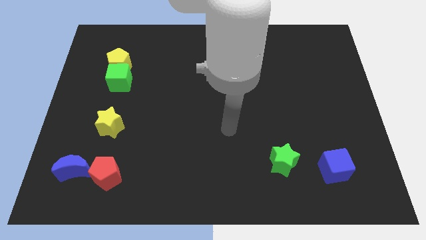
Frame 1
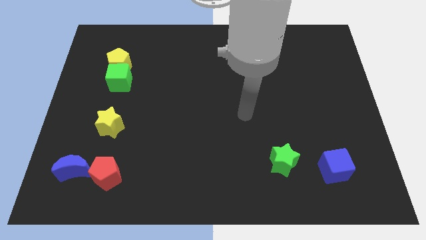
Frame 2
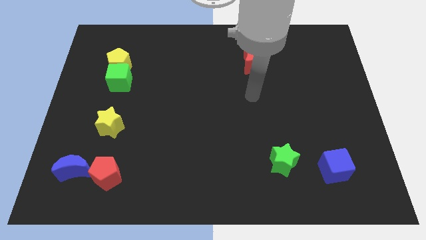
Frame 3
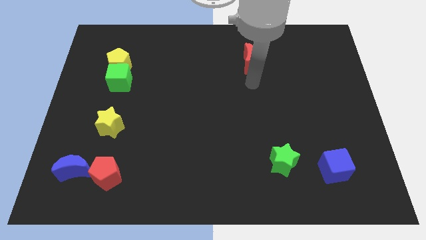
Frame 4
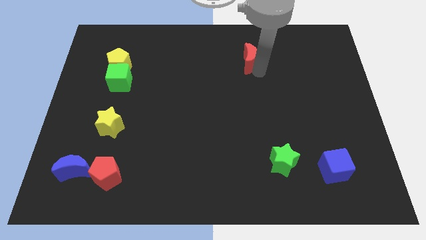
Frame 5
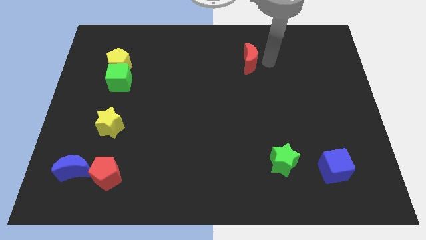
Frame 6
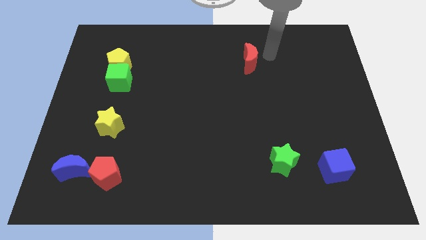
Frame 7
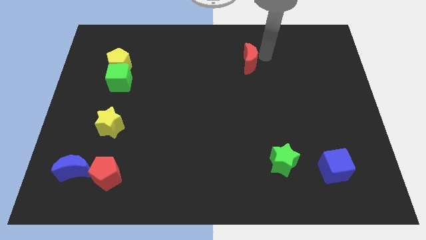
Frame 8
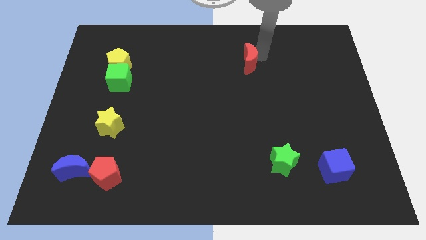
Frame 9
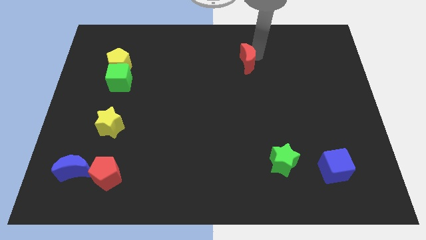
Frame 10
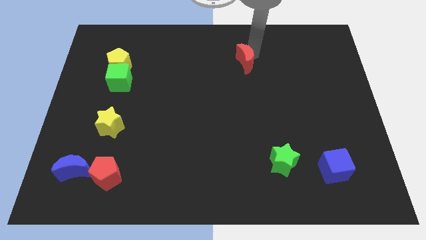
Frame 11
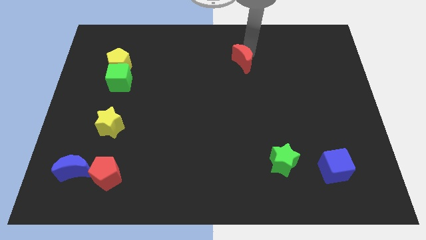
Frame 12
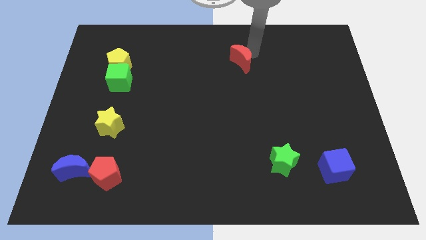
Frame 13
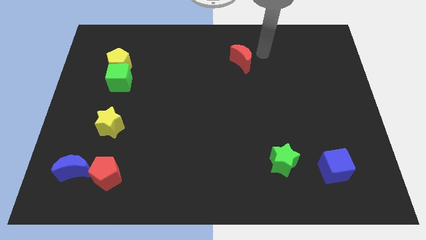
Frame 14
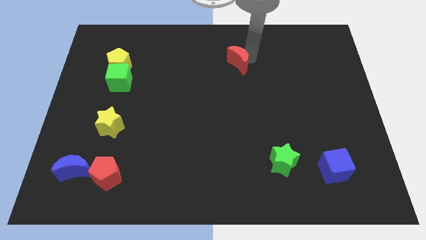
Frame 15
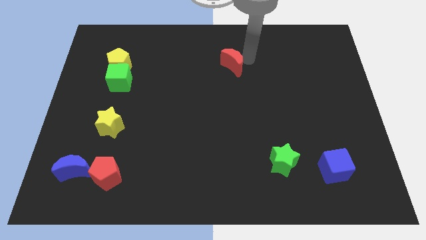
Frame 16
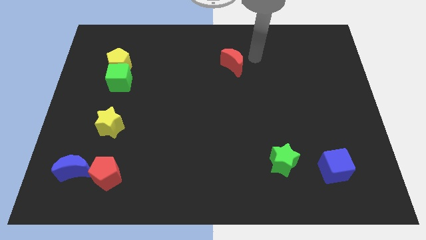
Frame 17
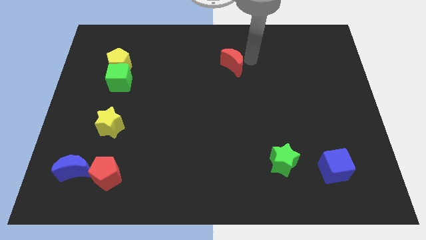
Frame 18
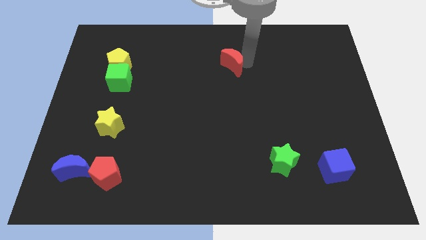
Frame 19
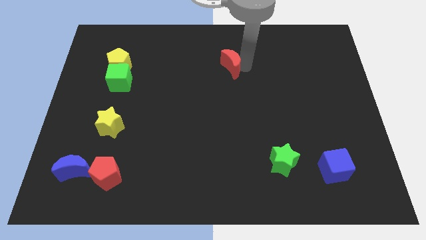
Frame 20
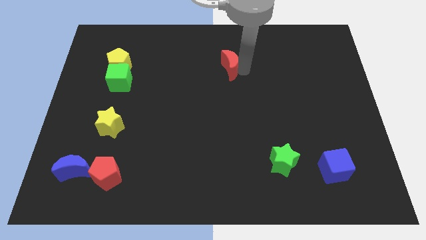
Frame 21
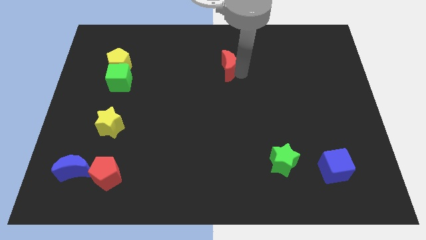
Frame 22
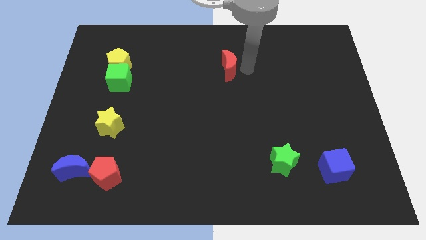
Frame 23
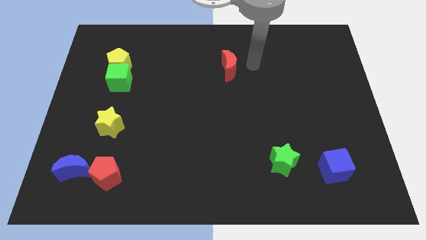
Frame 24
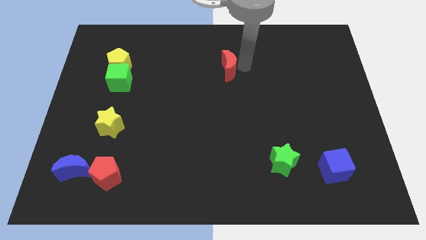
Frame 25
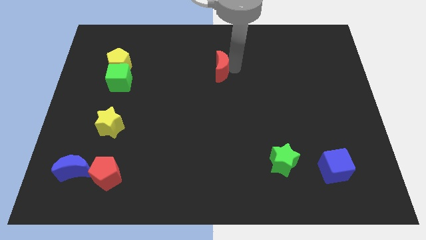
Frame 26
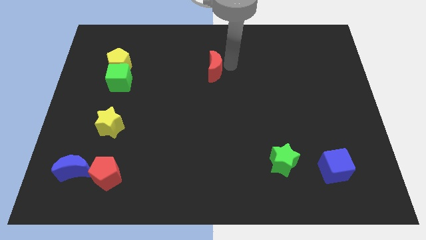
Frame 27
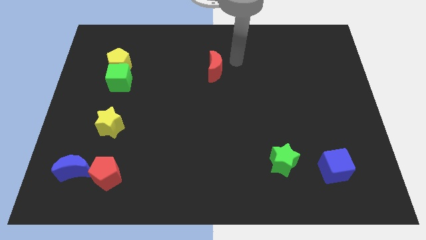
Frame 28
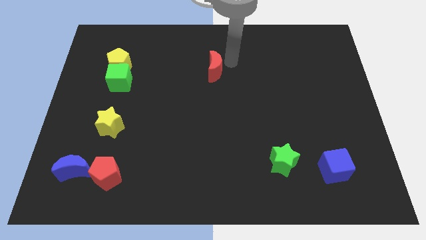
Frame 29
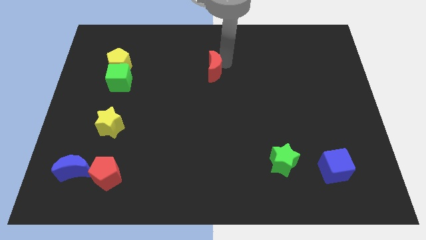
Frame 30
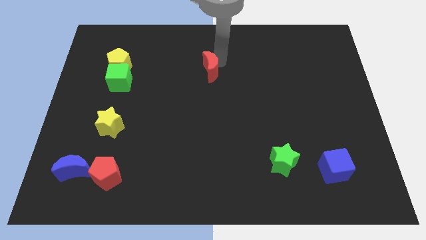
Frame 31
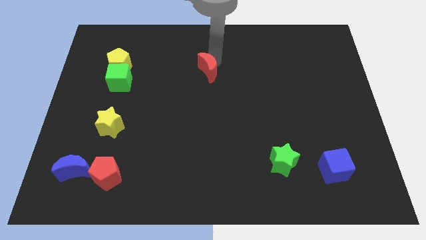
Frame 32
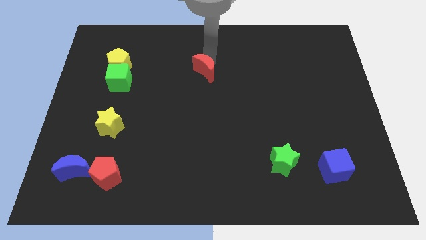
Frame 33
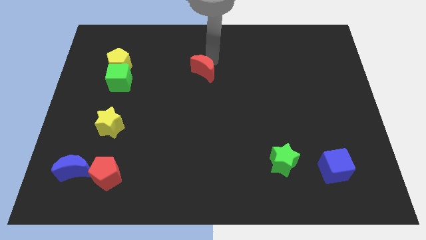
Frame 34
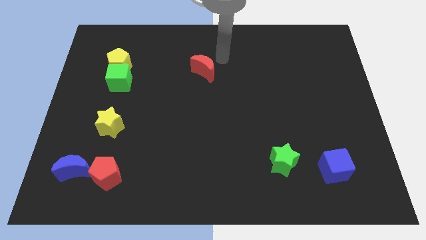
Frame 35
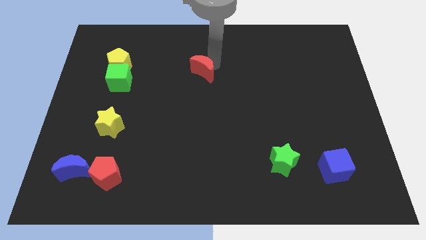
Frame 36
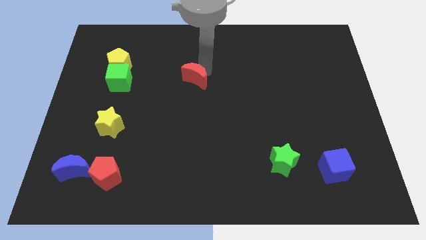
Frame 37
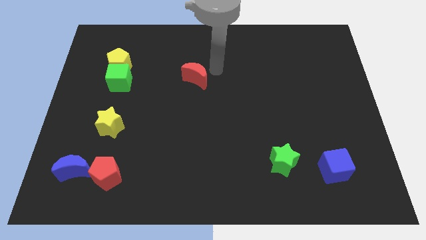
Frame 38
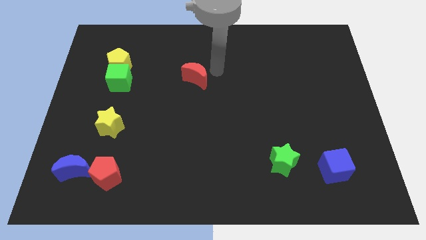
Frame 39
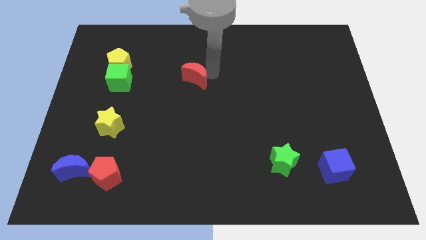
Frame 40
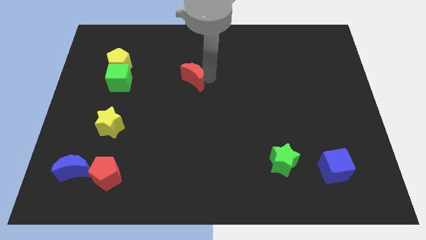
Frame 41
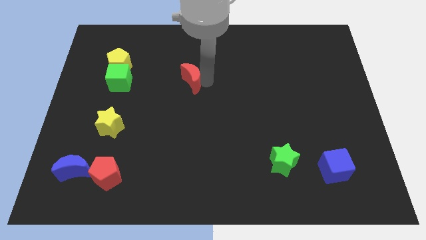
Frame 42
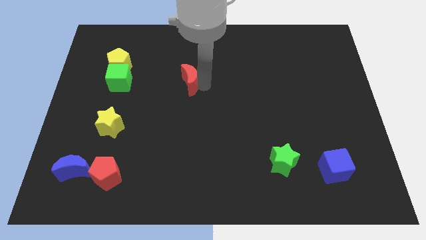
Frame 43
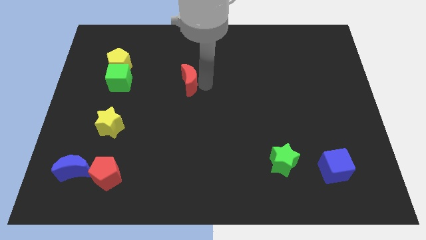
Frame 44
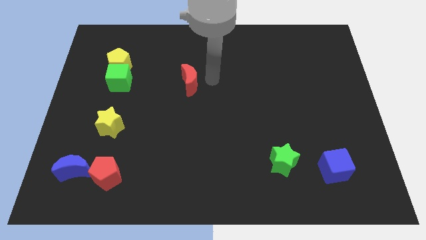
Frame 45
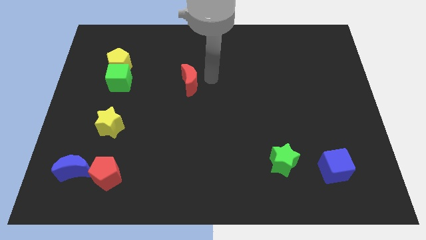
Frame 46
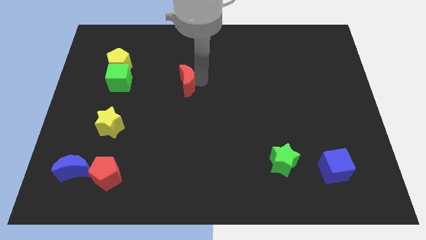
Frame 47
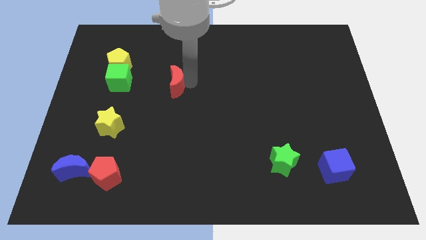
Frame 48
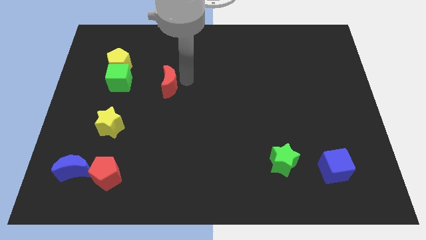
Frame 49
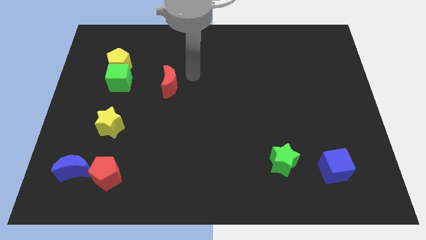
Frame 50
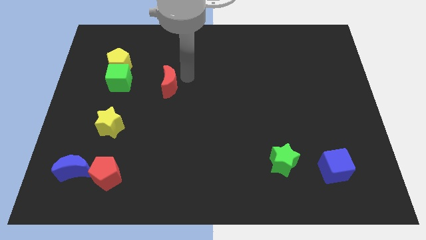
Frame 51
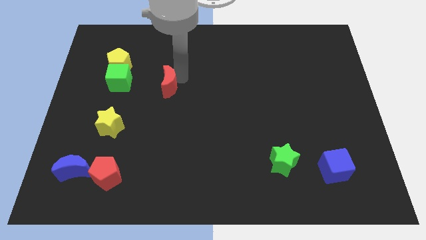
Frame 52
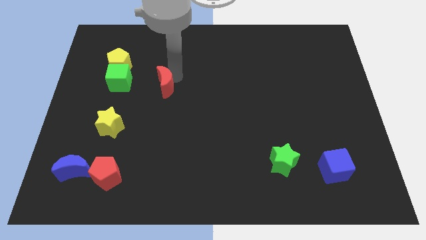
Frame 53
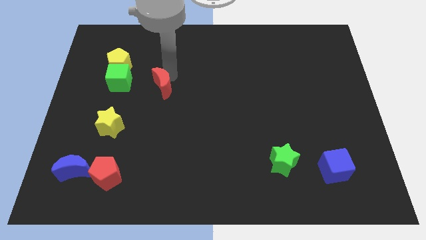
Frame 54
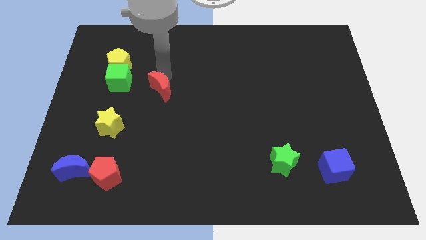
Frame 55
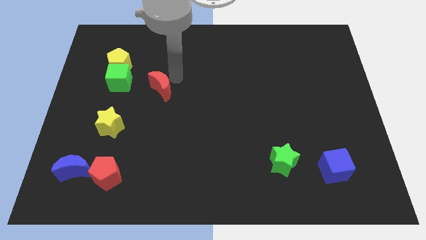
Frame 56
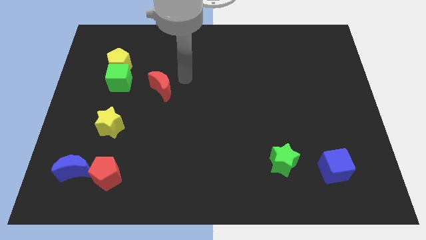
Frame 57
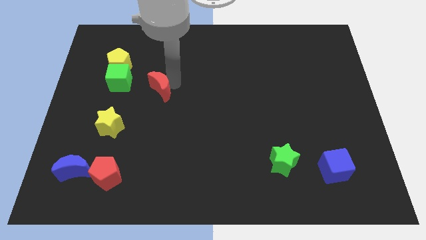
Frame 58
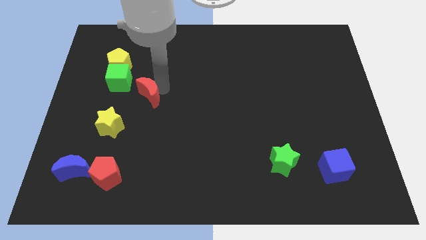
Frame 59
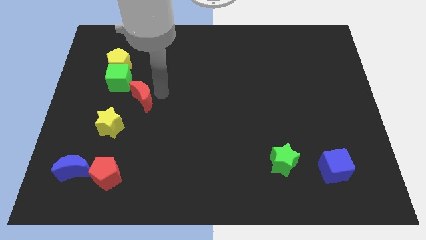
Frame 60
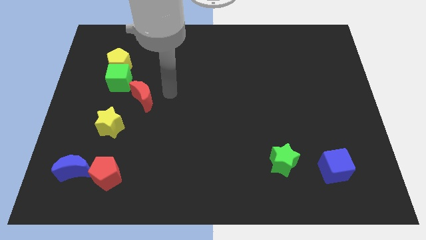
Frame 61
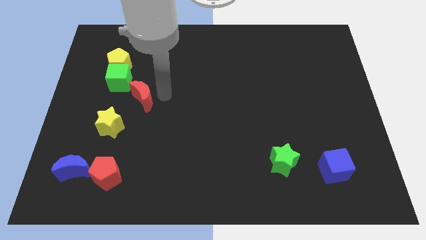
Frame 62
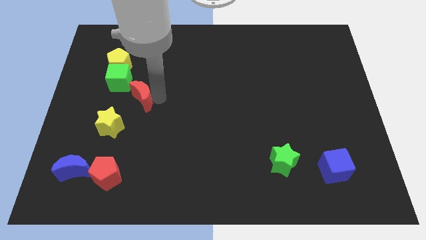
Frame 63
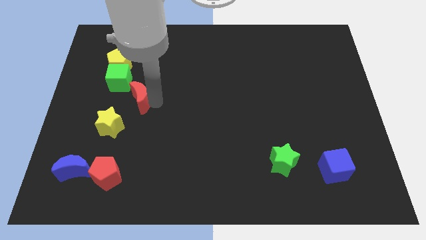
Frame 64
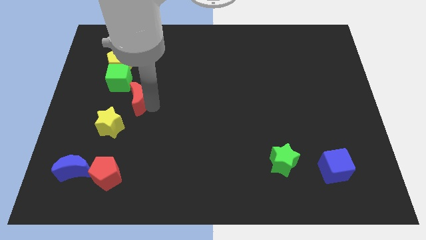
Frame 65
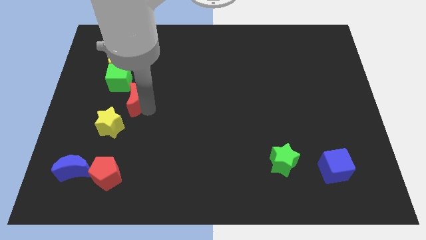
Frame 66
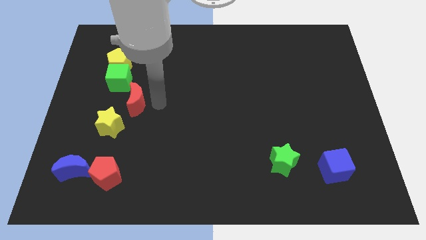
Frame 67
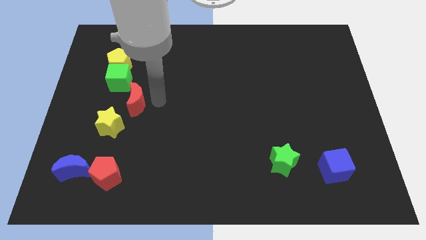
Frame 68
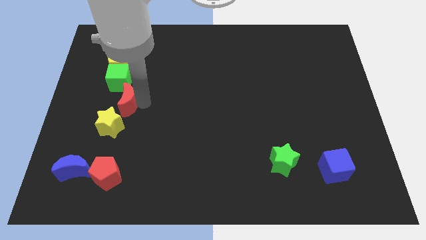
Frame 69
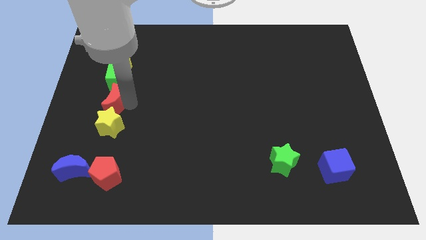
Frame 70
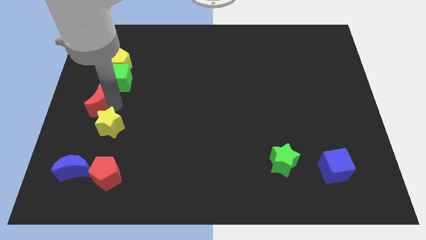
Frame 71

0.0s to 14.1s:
move the red moon to the center left
